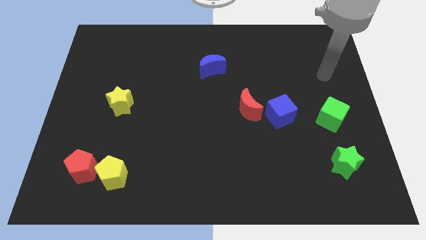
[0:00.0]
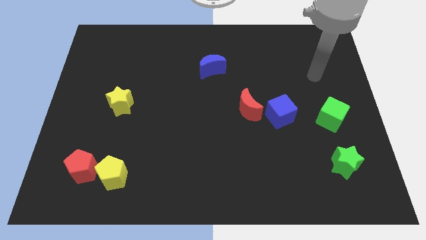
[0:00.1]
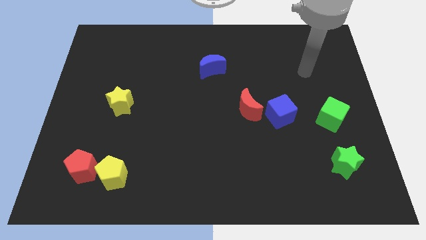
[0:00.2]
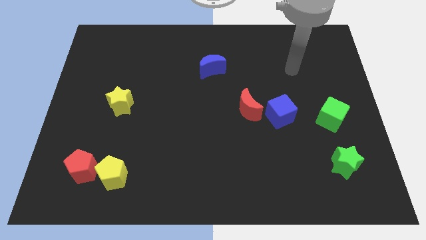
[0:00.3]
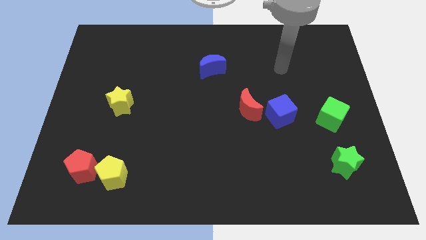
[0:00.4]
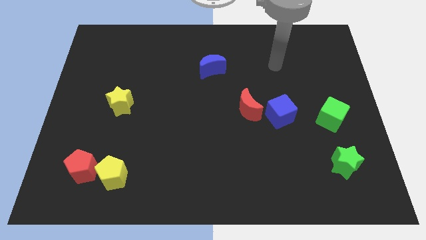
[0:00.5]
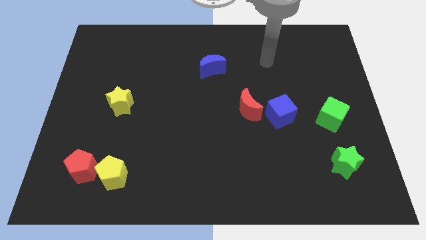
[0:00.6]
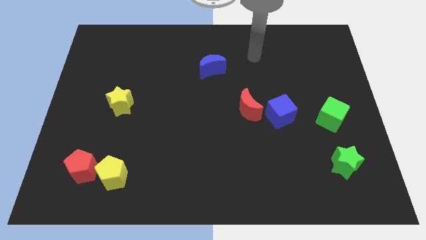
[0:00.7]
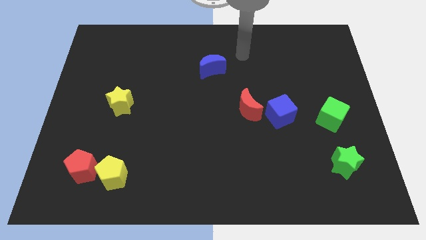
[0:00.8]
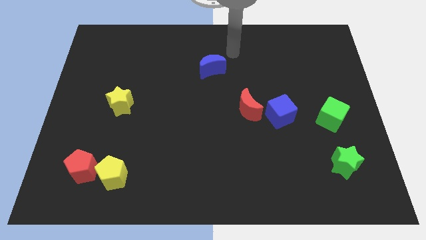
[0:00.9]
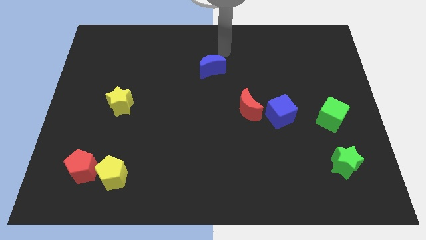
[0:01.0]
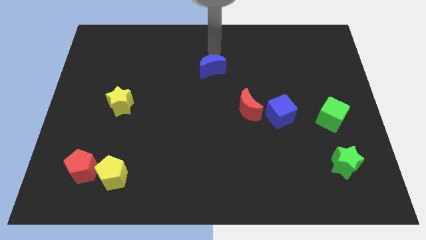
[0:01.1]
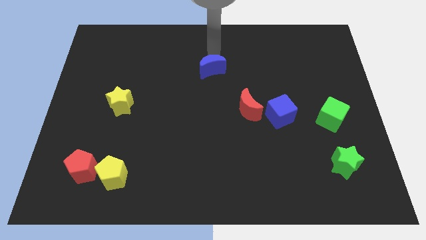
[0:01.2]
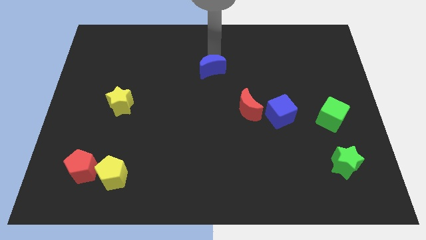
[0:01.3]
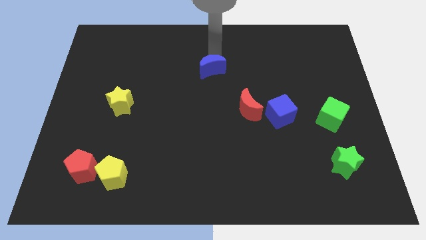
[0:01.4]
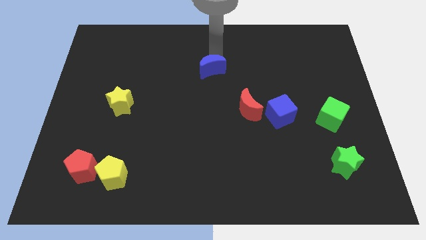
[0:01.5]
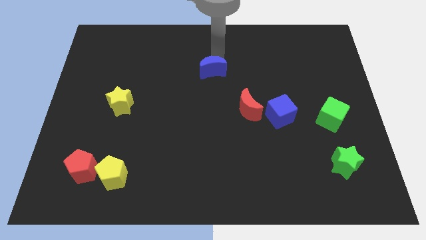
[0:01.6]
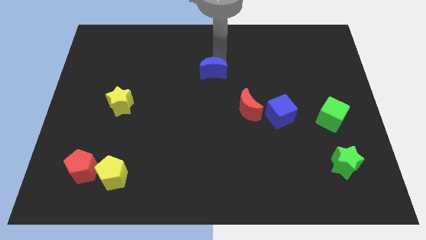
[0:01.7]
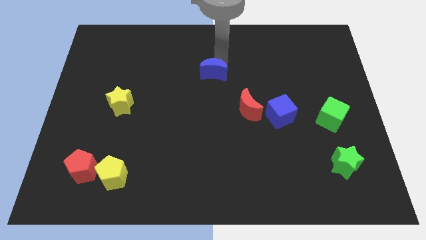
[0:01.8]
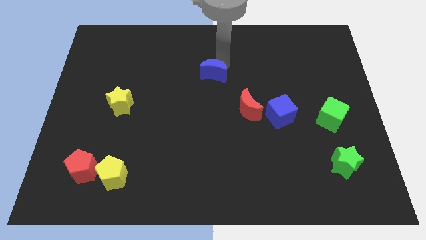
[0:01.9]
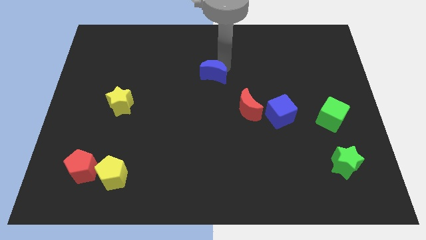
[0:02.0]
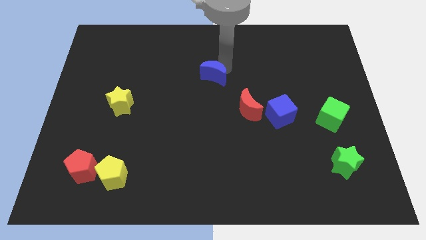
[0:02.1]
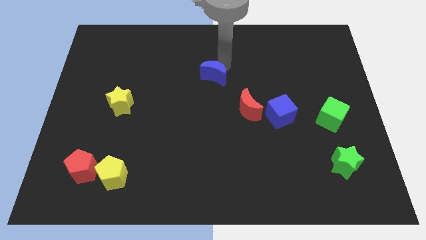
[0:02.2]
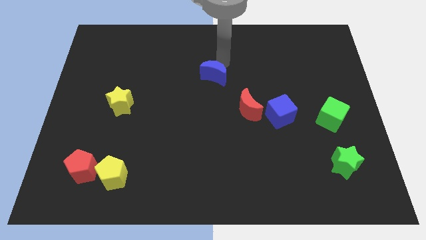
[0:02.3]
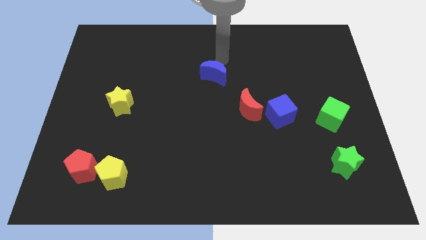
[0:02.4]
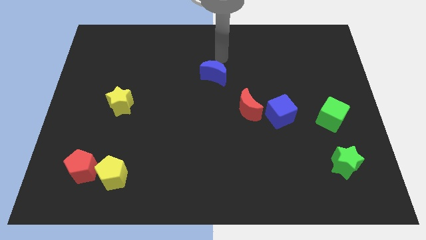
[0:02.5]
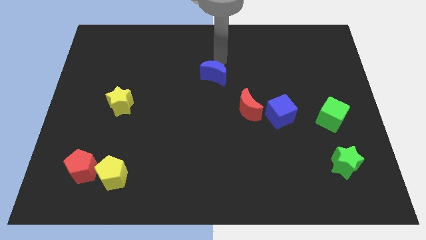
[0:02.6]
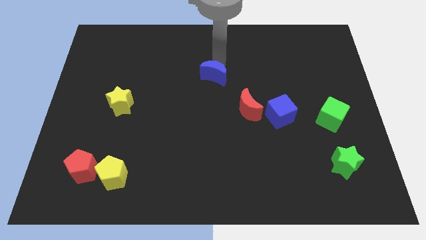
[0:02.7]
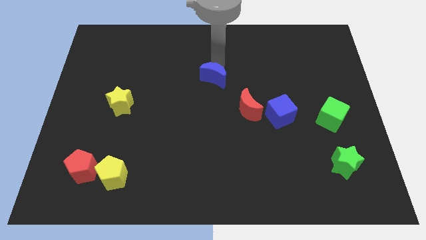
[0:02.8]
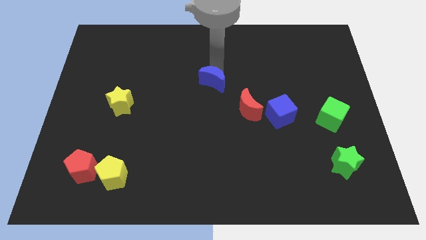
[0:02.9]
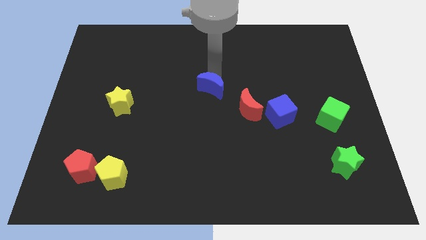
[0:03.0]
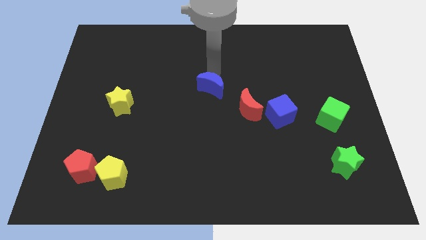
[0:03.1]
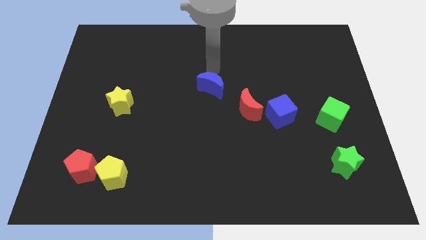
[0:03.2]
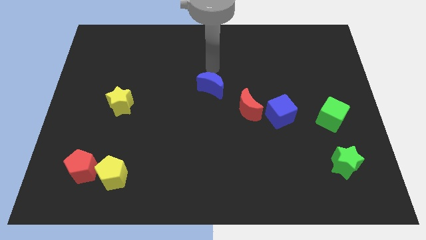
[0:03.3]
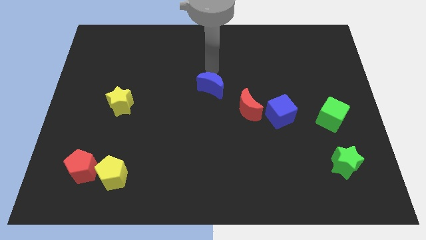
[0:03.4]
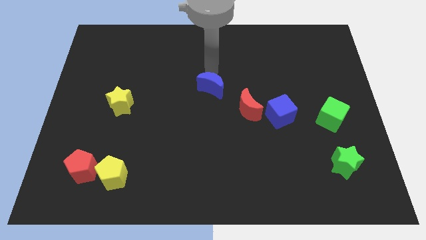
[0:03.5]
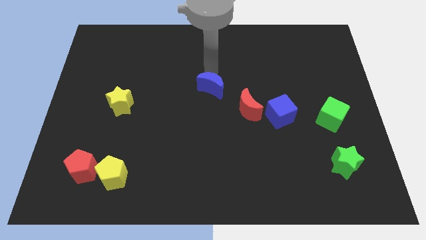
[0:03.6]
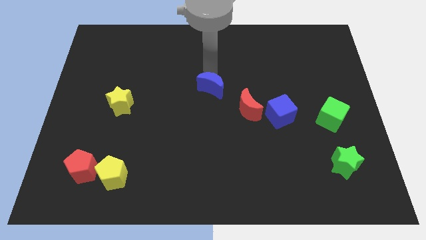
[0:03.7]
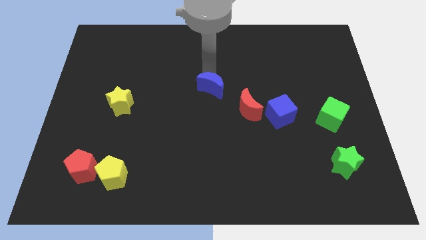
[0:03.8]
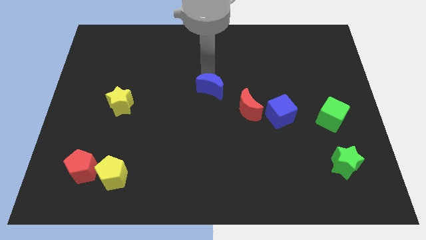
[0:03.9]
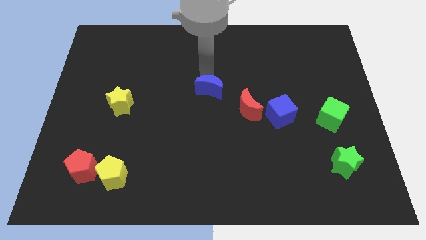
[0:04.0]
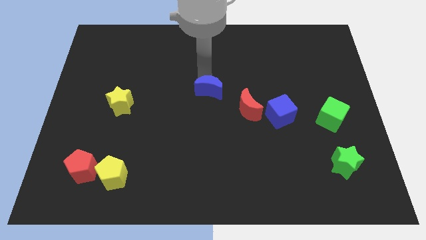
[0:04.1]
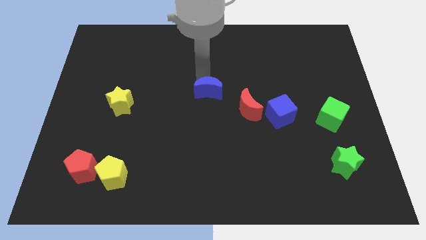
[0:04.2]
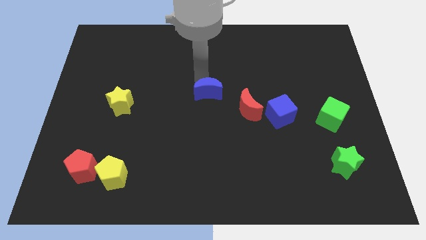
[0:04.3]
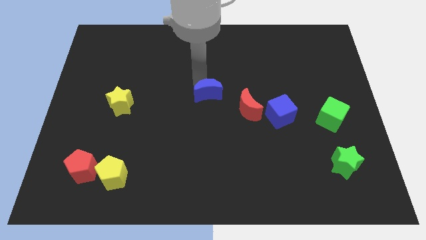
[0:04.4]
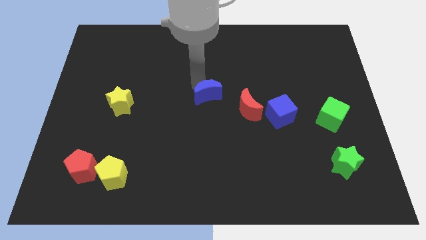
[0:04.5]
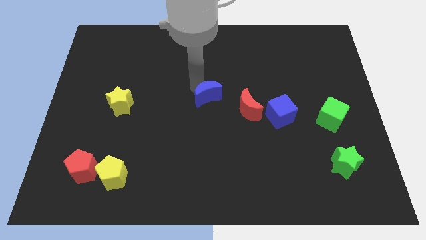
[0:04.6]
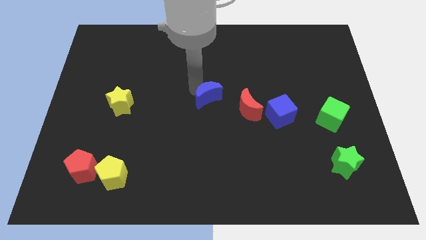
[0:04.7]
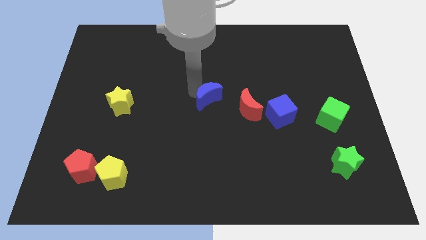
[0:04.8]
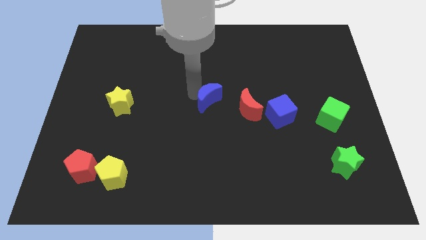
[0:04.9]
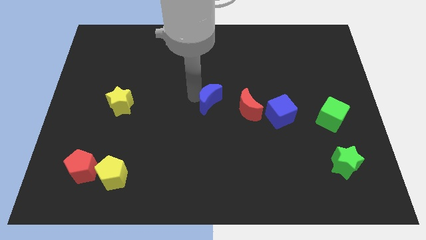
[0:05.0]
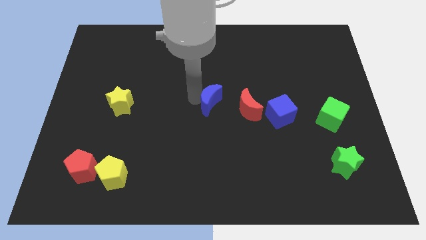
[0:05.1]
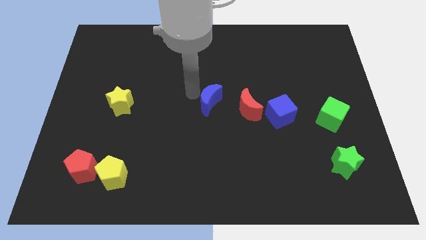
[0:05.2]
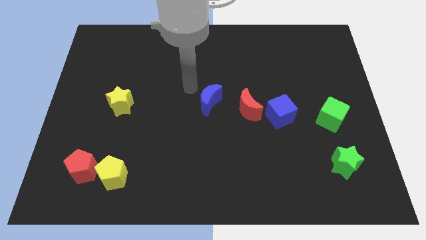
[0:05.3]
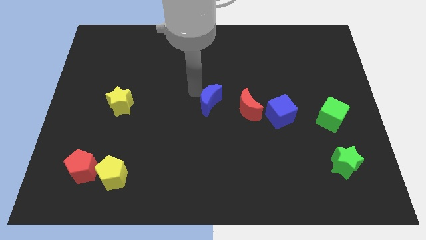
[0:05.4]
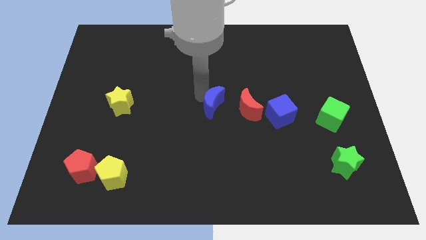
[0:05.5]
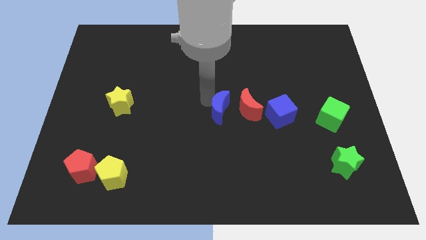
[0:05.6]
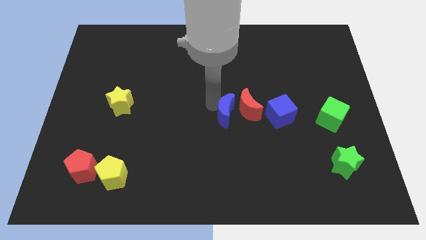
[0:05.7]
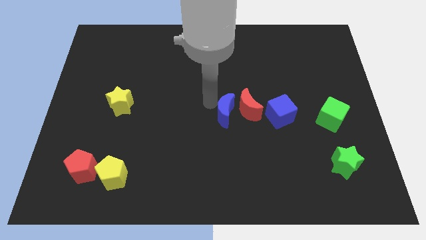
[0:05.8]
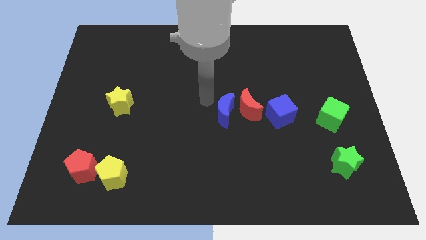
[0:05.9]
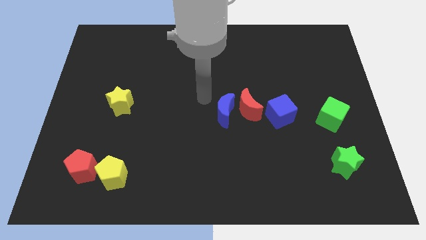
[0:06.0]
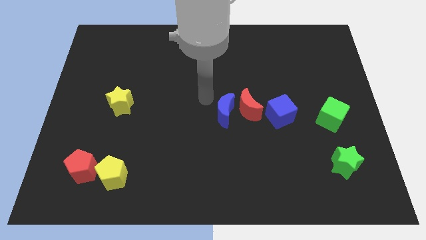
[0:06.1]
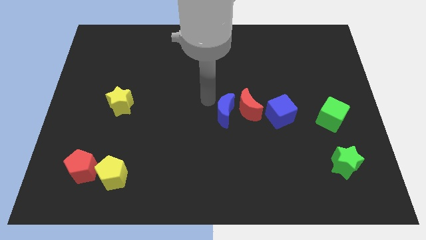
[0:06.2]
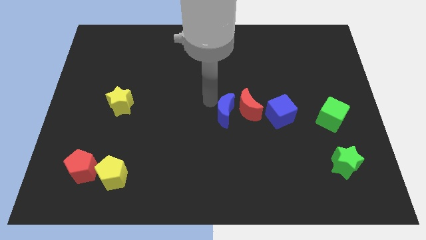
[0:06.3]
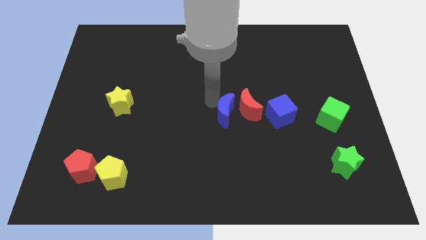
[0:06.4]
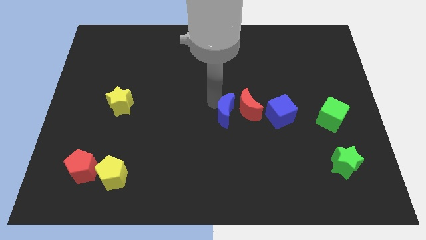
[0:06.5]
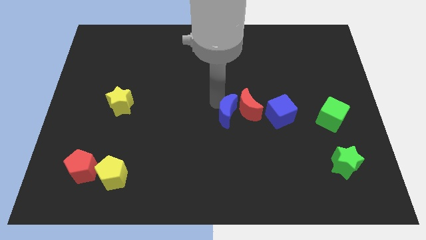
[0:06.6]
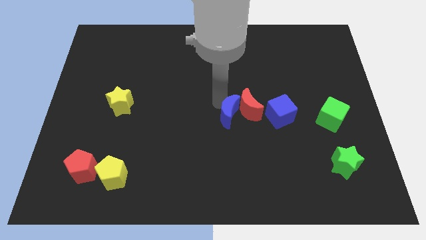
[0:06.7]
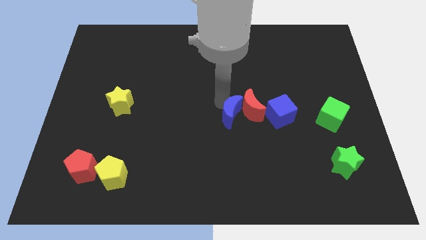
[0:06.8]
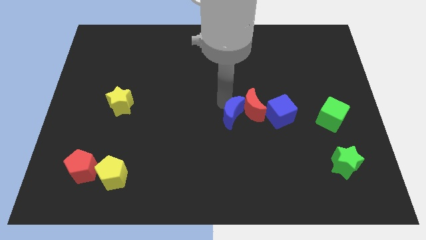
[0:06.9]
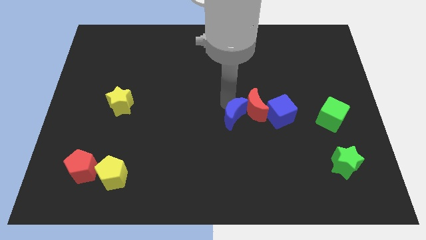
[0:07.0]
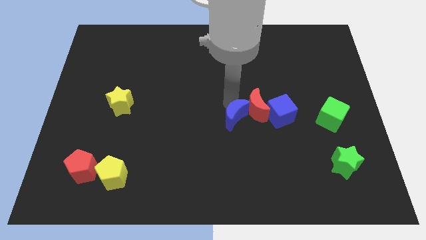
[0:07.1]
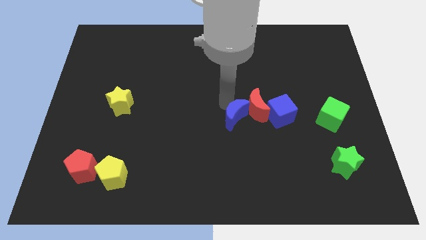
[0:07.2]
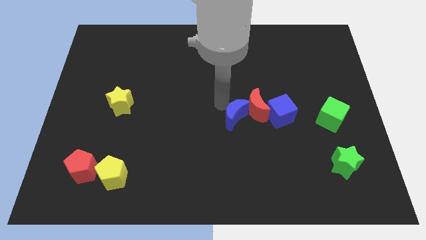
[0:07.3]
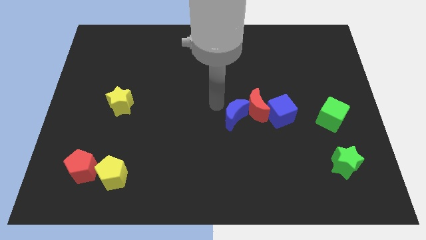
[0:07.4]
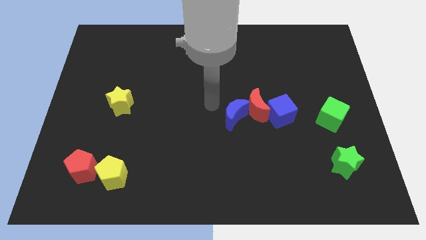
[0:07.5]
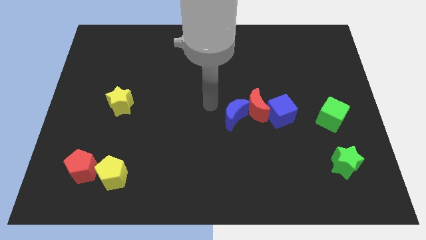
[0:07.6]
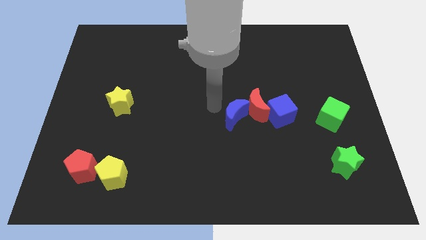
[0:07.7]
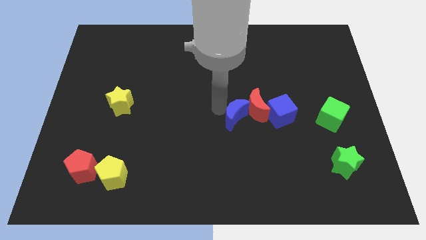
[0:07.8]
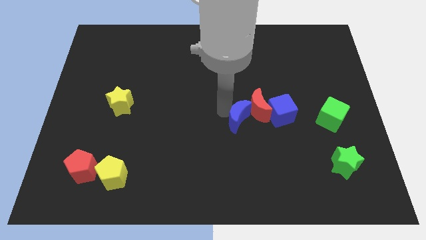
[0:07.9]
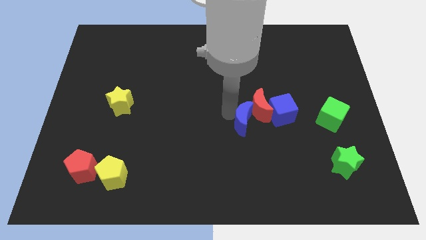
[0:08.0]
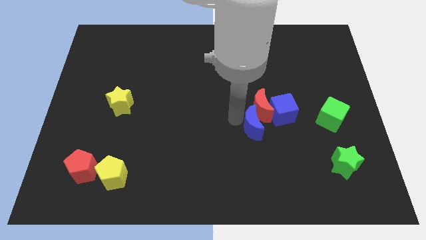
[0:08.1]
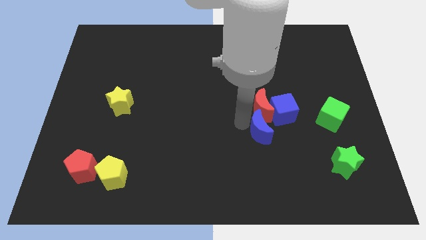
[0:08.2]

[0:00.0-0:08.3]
push the blue moon diagonally down and to the right of the red moon
